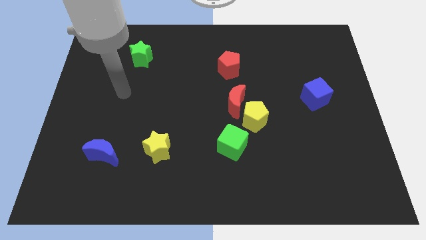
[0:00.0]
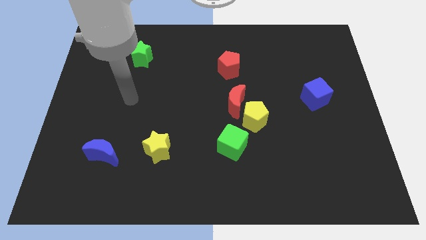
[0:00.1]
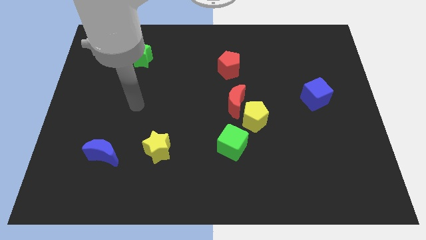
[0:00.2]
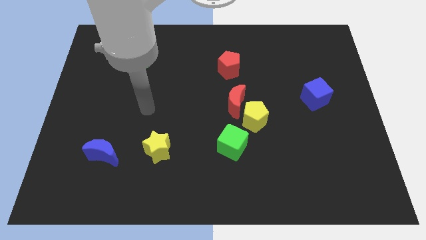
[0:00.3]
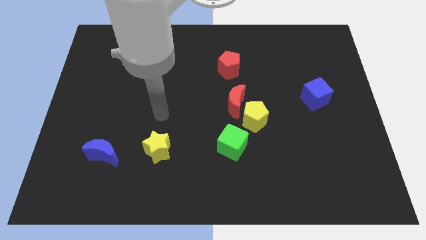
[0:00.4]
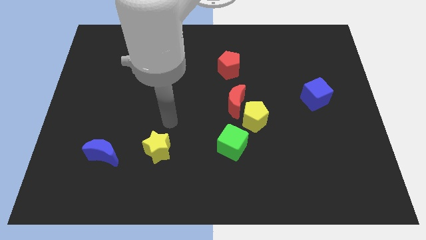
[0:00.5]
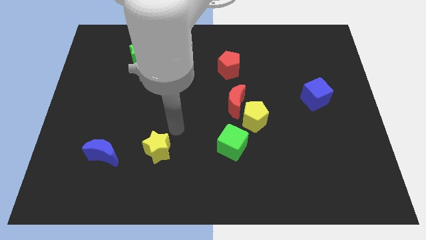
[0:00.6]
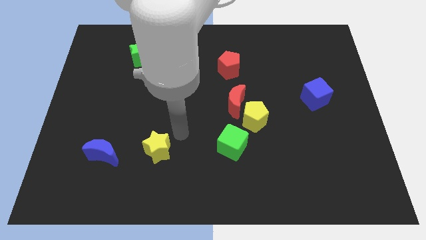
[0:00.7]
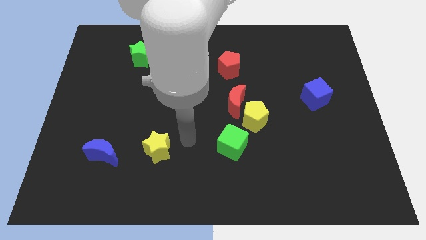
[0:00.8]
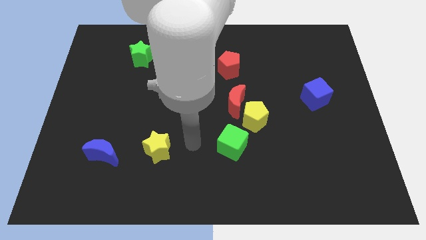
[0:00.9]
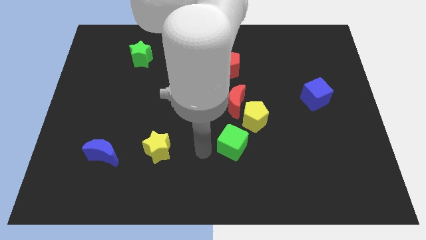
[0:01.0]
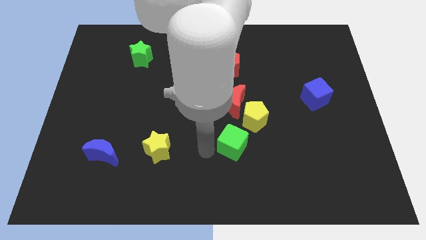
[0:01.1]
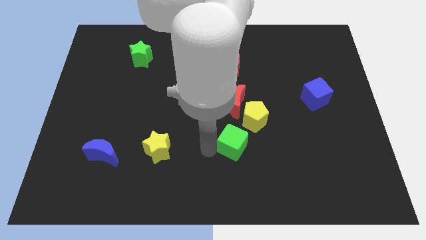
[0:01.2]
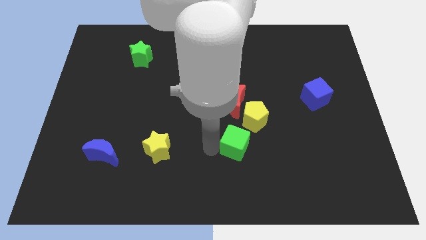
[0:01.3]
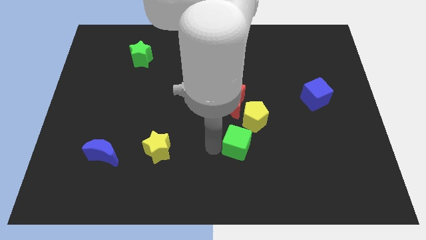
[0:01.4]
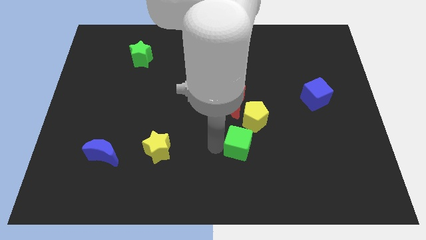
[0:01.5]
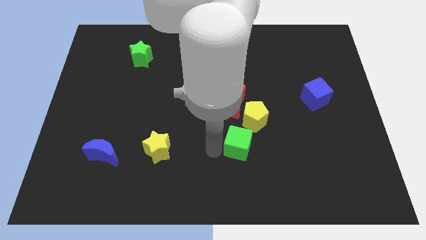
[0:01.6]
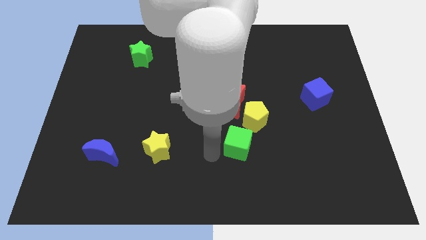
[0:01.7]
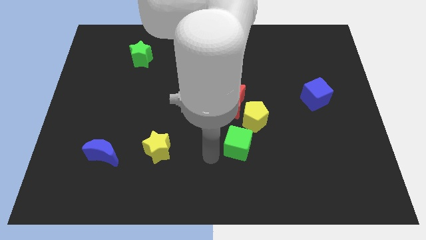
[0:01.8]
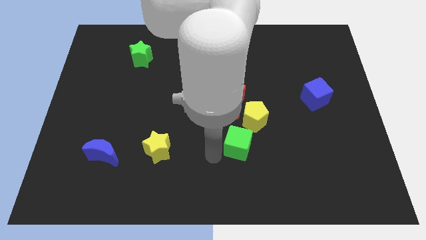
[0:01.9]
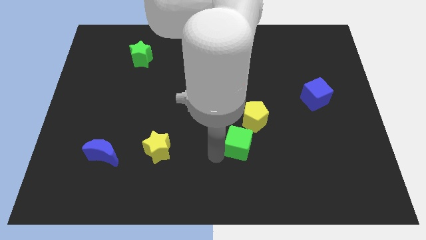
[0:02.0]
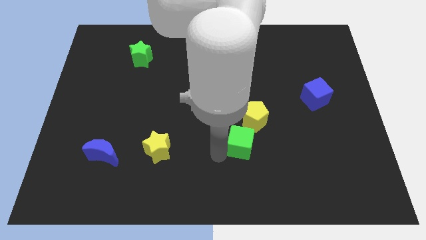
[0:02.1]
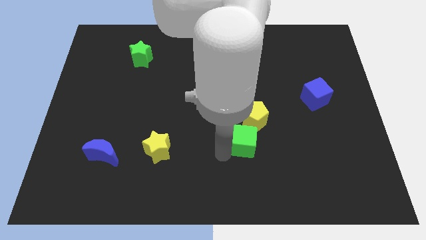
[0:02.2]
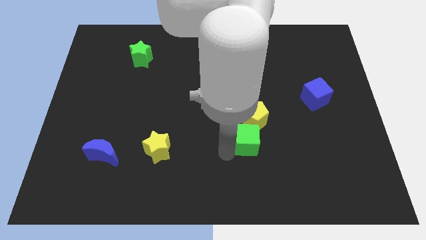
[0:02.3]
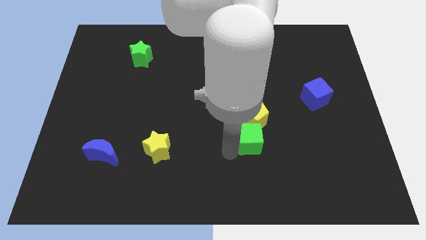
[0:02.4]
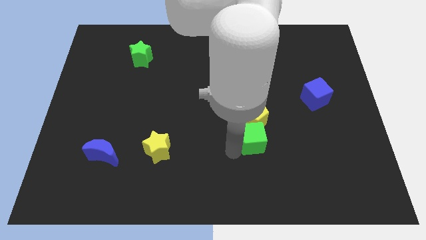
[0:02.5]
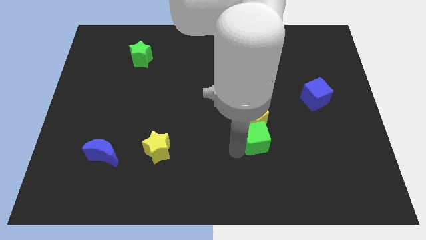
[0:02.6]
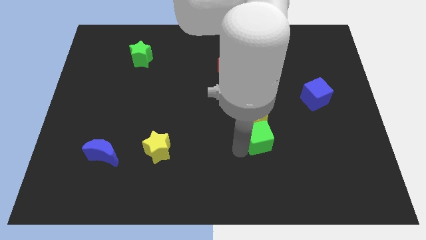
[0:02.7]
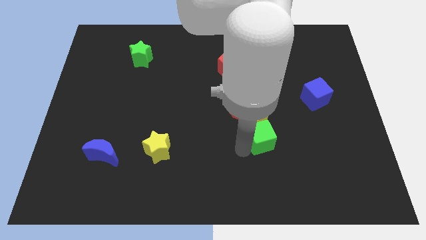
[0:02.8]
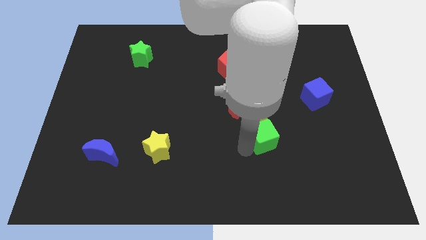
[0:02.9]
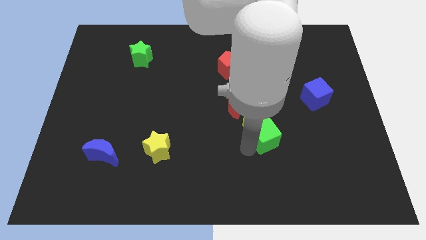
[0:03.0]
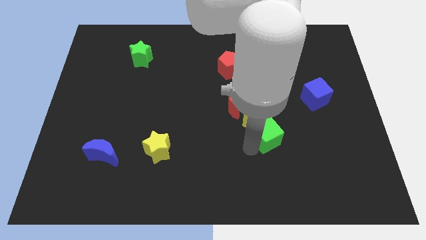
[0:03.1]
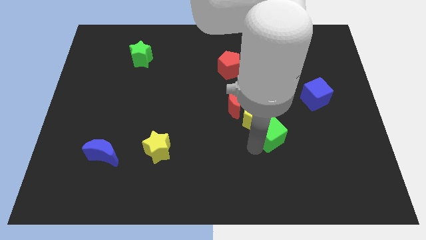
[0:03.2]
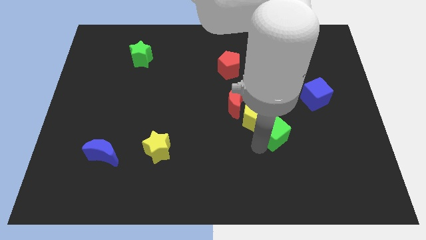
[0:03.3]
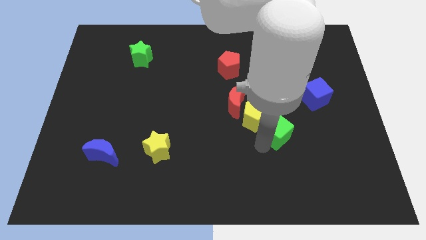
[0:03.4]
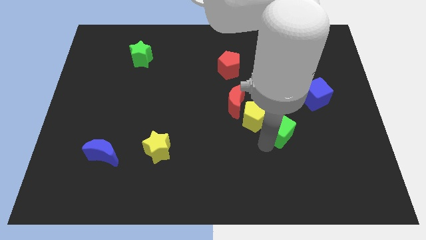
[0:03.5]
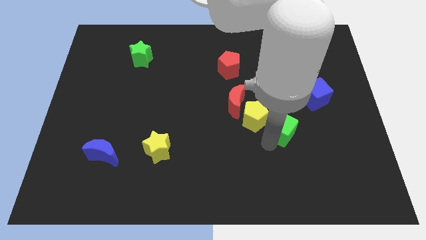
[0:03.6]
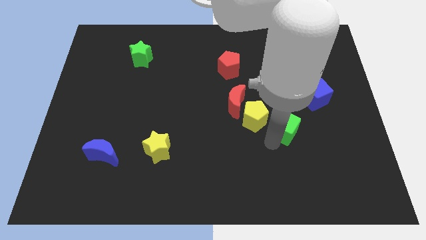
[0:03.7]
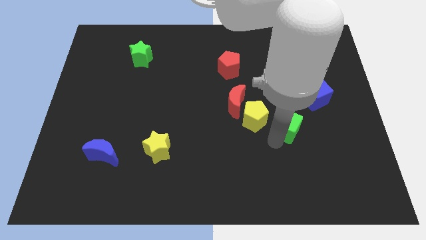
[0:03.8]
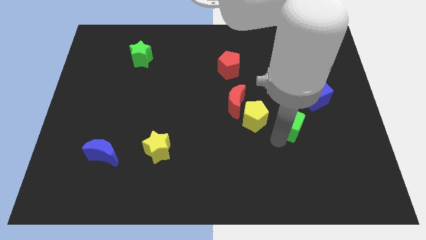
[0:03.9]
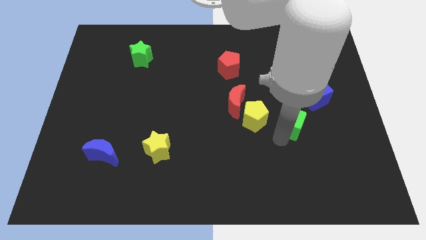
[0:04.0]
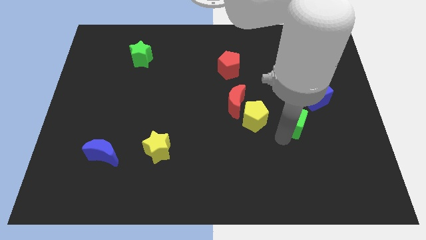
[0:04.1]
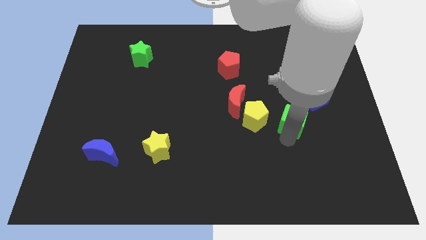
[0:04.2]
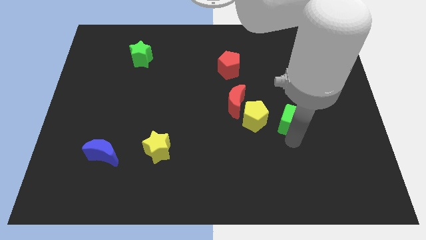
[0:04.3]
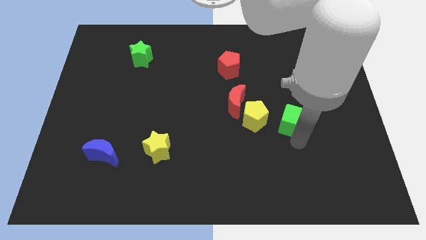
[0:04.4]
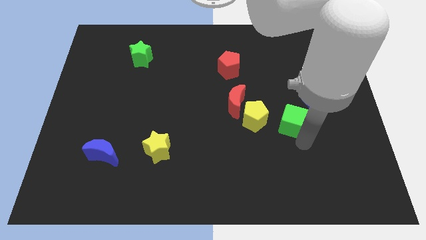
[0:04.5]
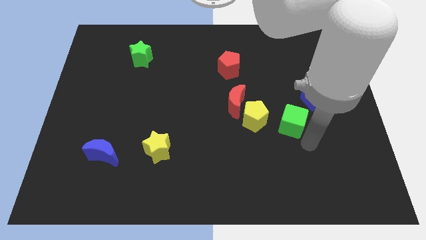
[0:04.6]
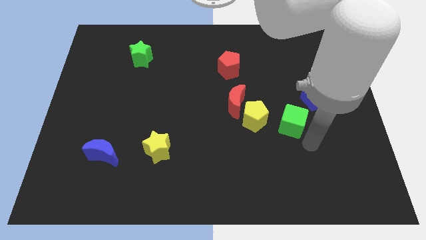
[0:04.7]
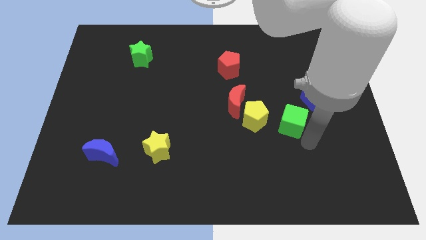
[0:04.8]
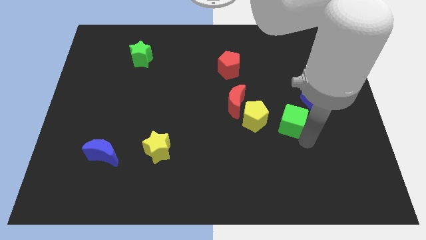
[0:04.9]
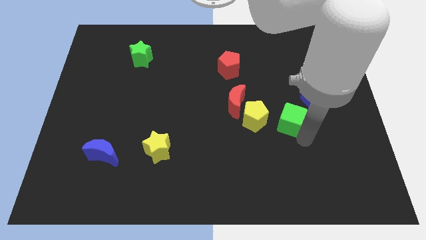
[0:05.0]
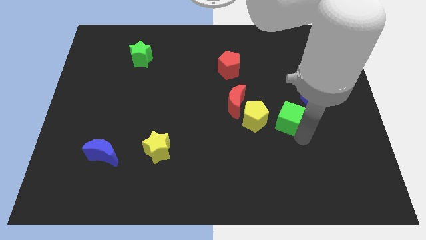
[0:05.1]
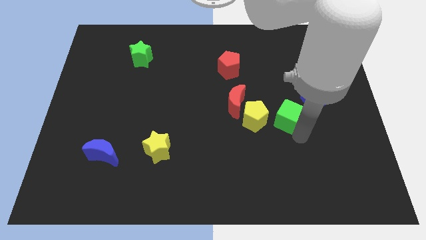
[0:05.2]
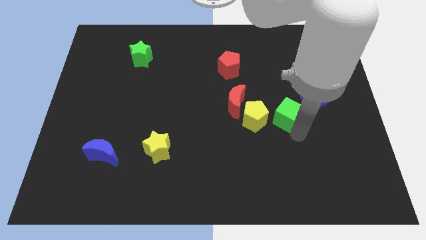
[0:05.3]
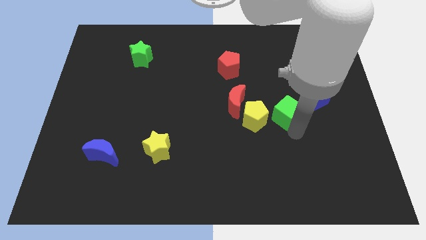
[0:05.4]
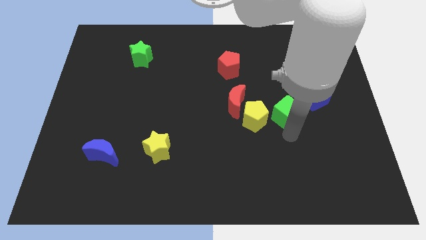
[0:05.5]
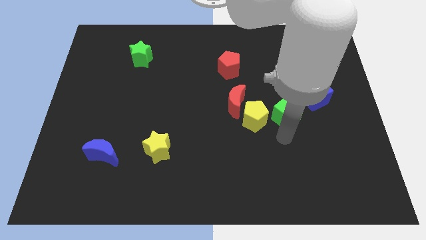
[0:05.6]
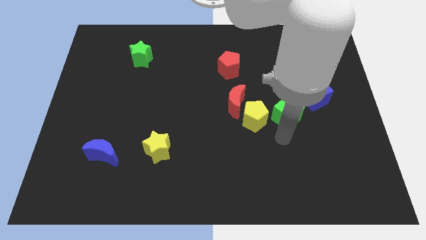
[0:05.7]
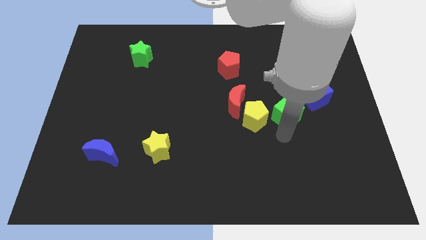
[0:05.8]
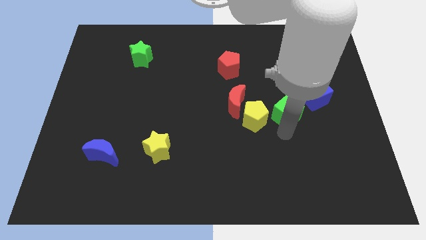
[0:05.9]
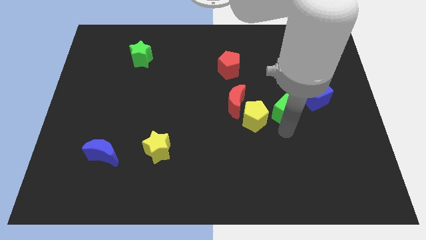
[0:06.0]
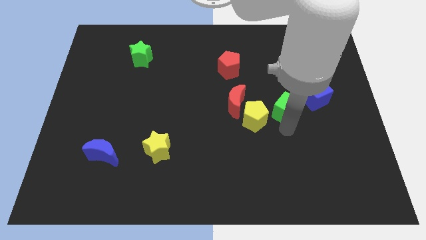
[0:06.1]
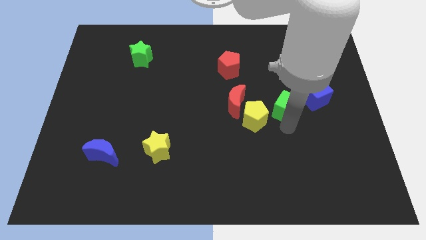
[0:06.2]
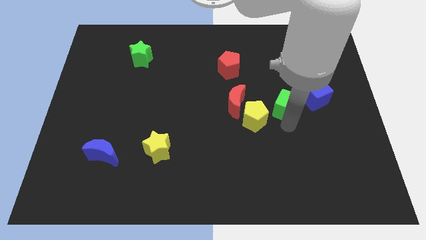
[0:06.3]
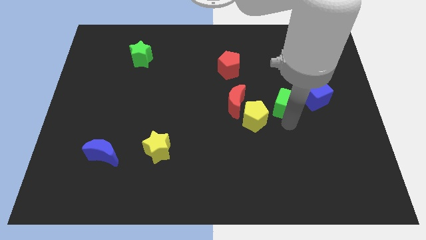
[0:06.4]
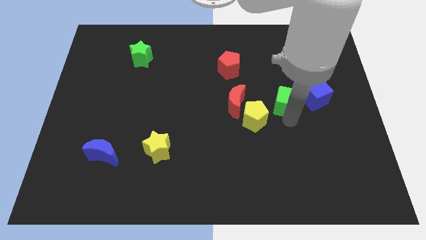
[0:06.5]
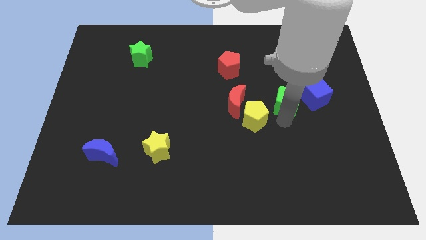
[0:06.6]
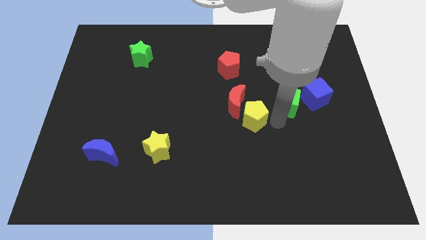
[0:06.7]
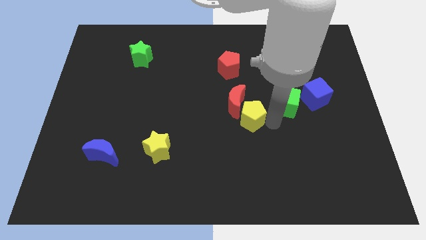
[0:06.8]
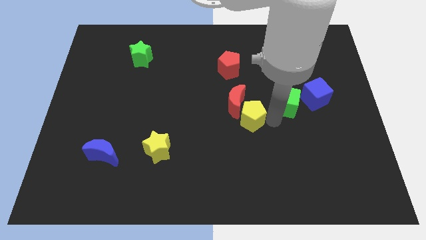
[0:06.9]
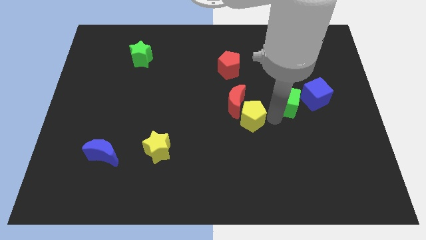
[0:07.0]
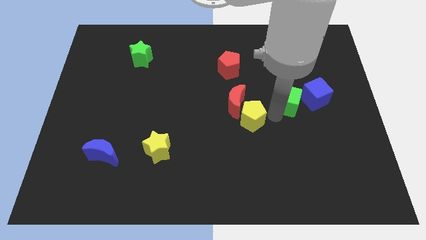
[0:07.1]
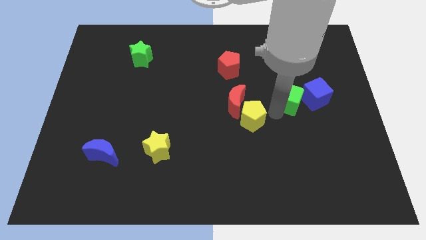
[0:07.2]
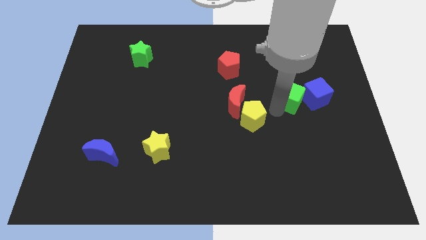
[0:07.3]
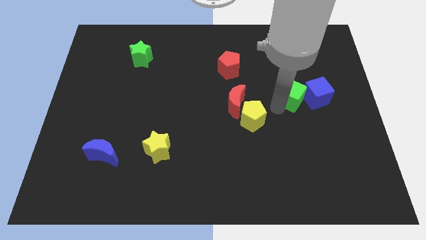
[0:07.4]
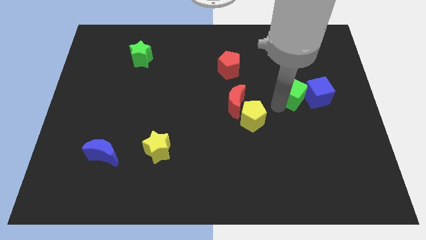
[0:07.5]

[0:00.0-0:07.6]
slide the green cube up and to the right diagonally

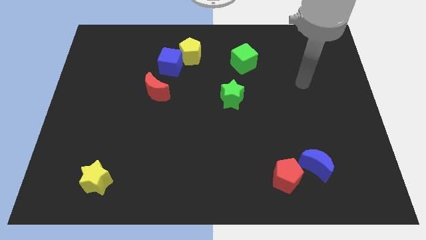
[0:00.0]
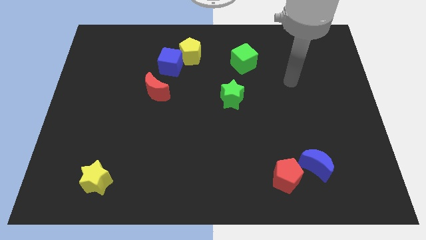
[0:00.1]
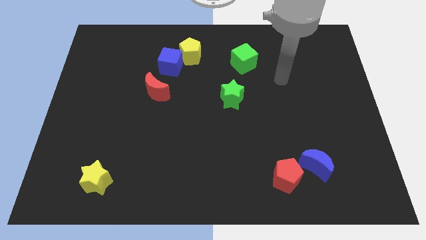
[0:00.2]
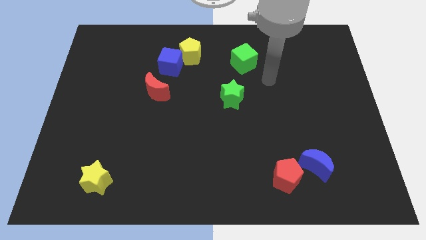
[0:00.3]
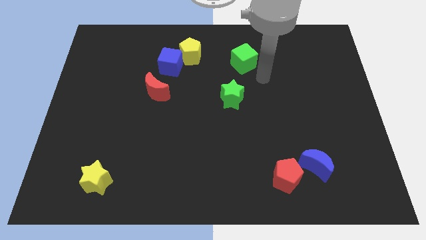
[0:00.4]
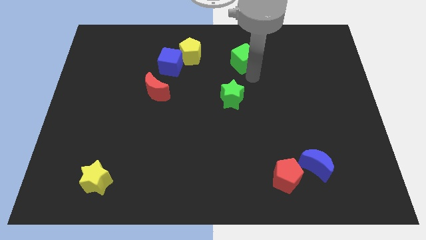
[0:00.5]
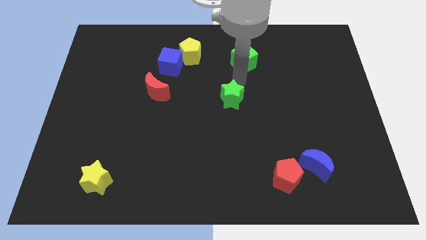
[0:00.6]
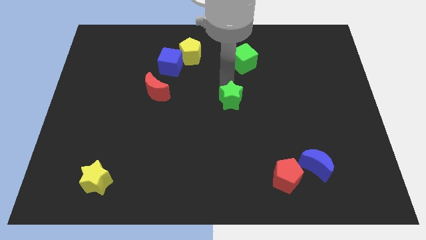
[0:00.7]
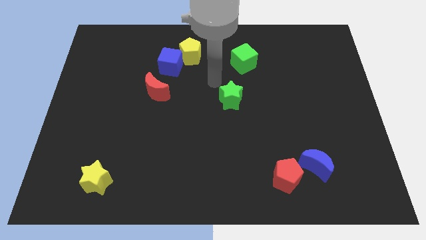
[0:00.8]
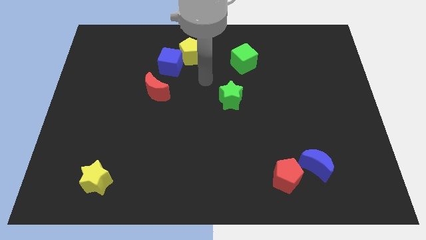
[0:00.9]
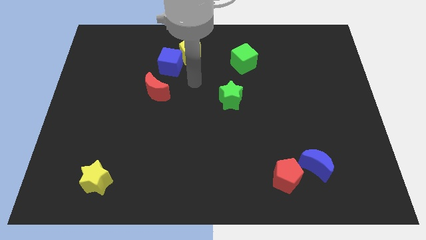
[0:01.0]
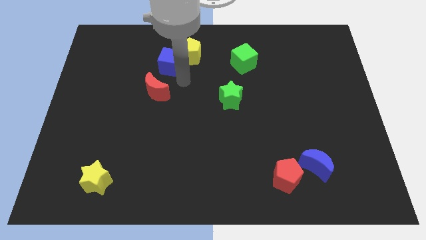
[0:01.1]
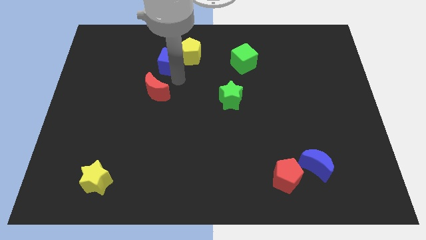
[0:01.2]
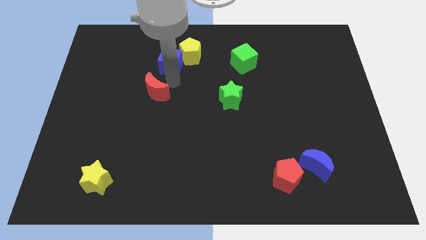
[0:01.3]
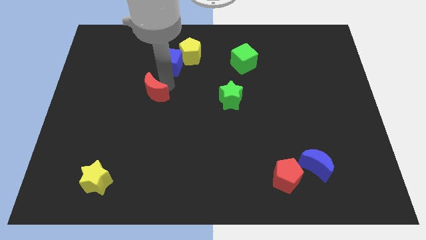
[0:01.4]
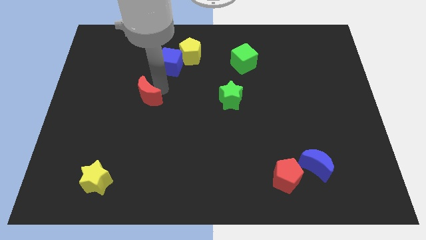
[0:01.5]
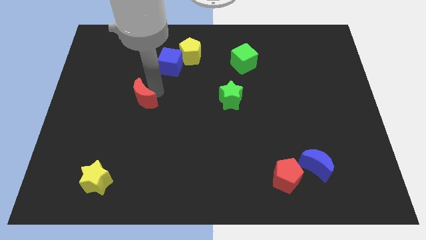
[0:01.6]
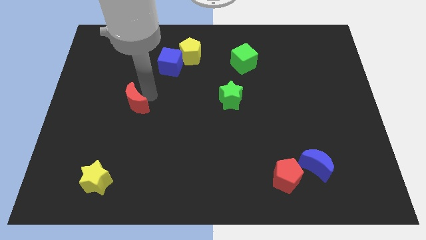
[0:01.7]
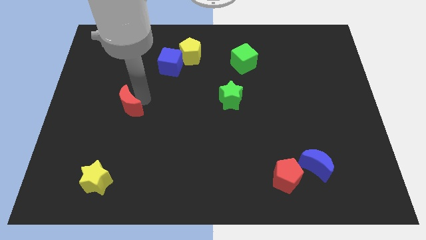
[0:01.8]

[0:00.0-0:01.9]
push the red moon downwards and left a little
